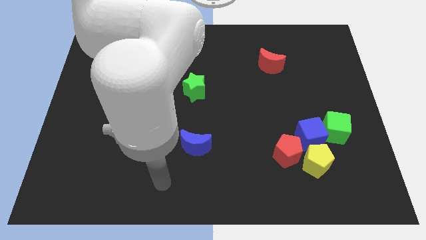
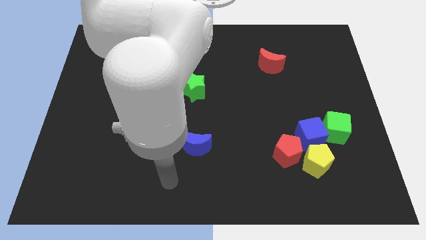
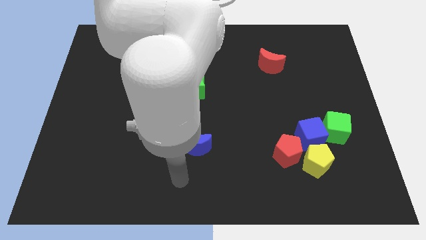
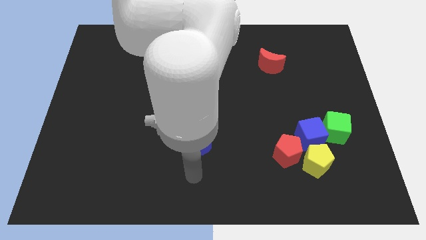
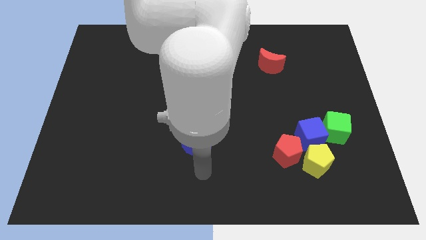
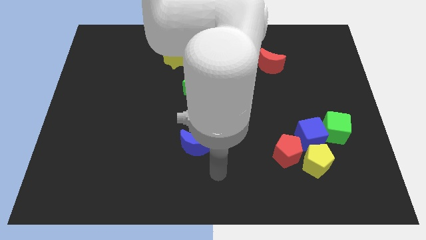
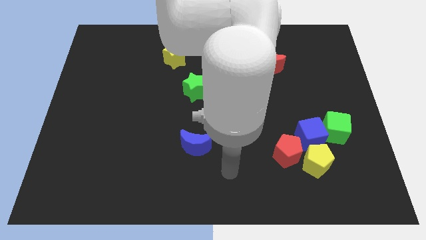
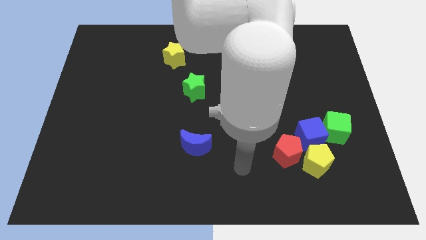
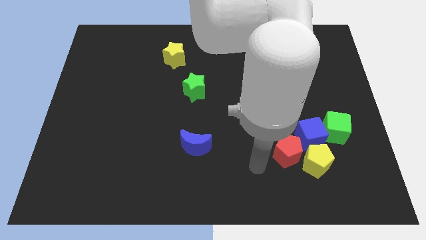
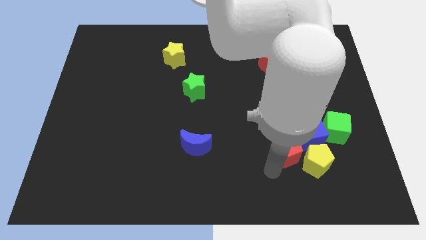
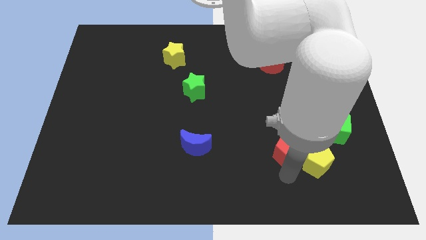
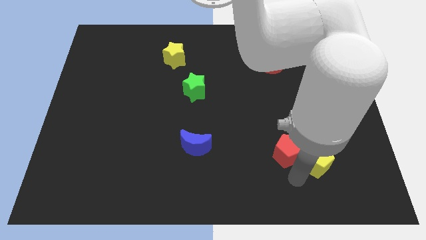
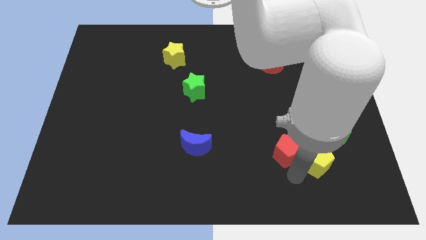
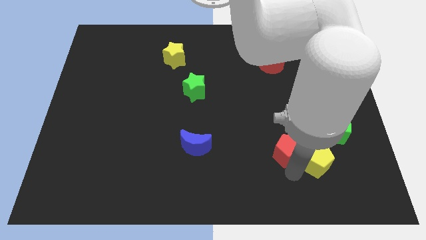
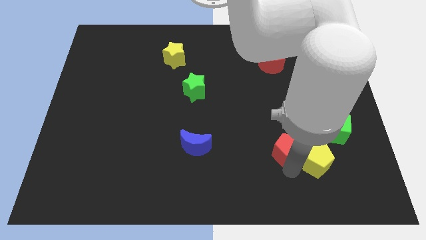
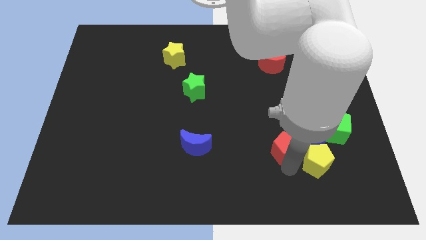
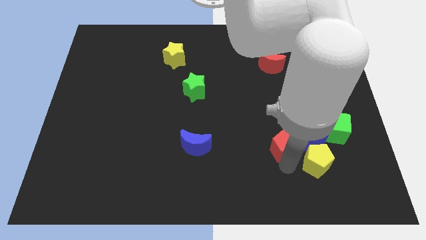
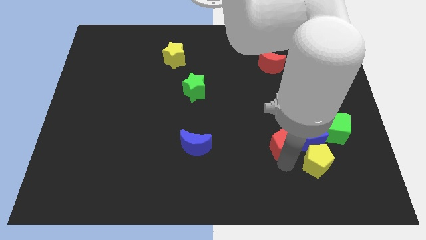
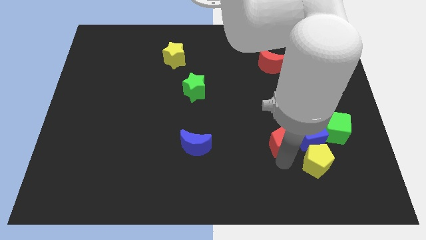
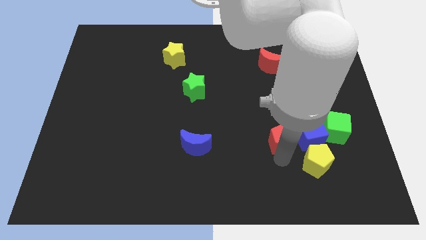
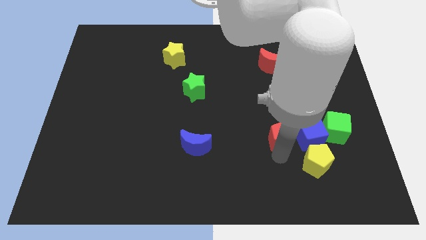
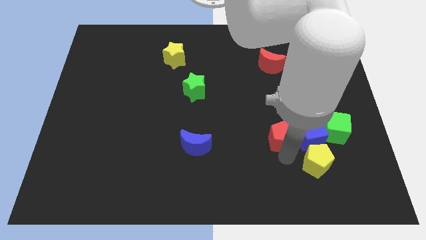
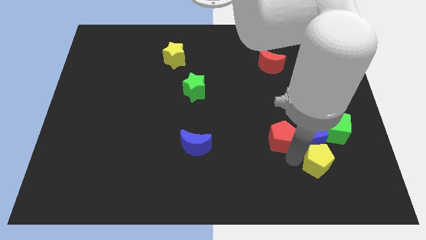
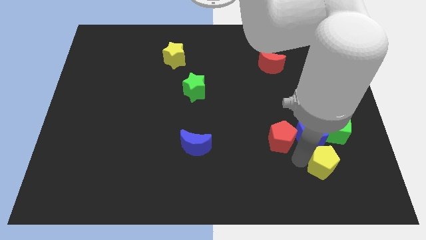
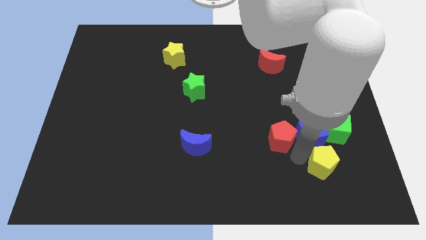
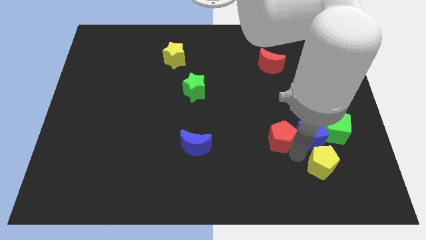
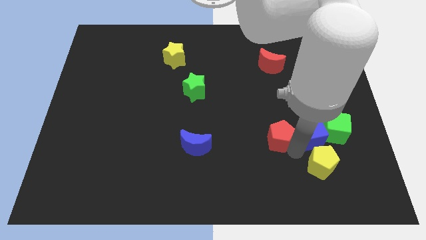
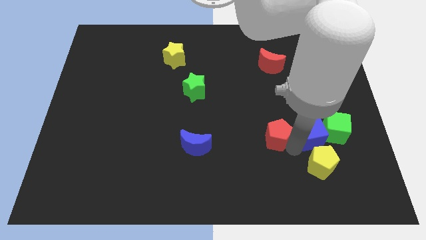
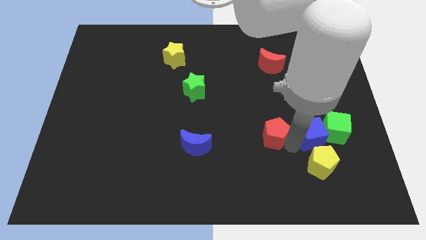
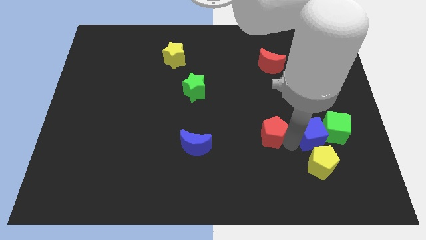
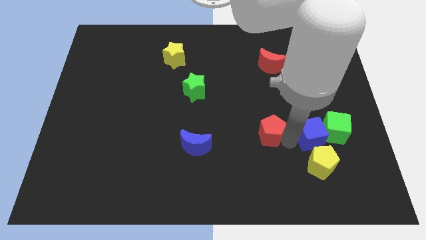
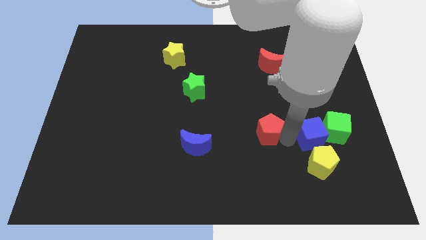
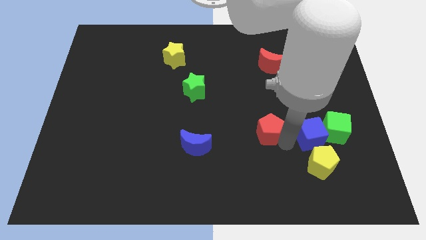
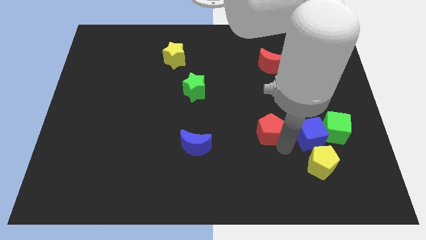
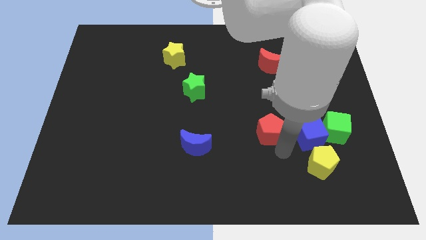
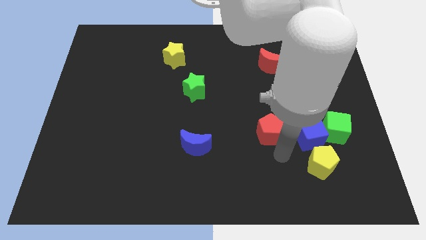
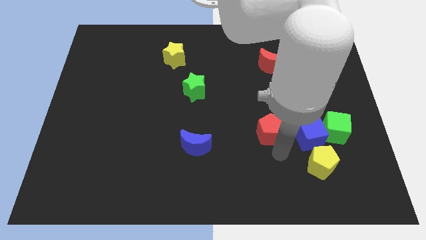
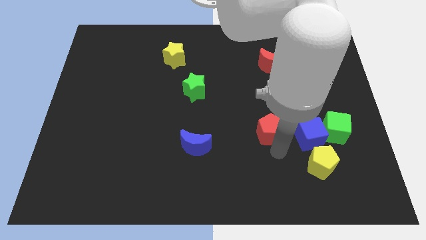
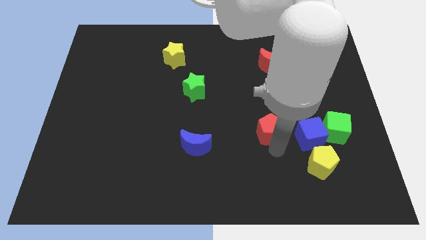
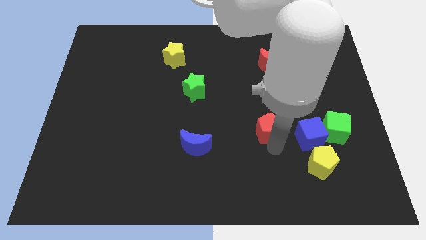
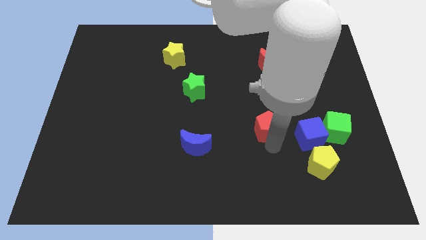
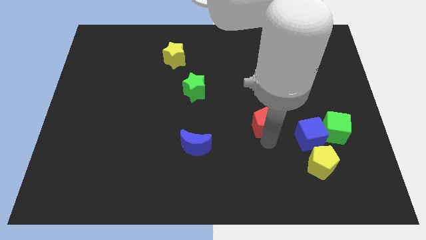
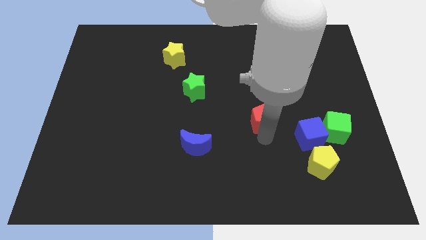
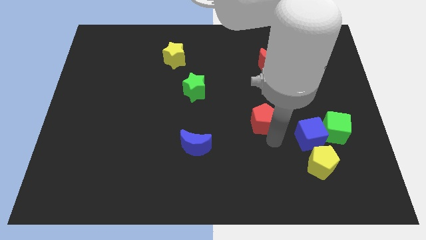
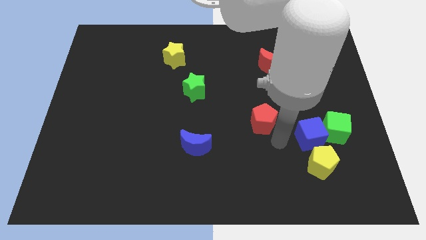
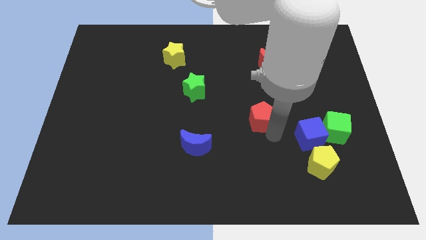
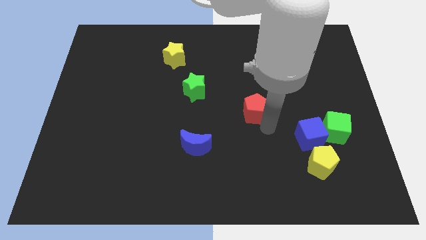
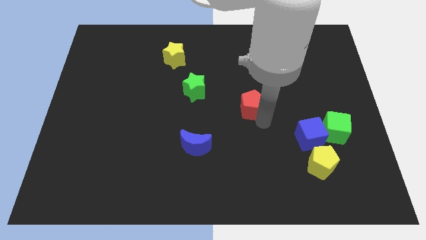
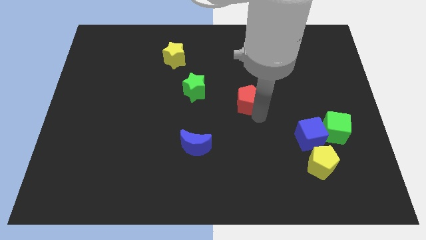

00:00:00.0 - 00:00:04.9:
move the red pentagon just right of the green star

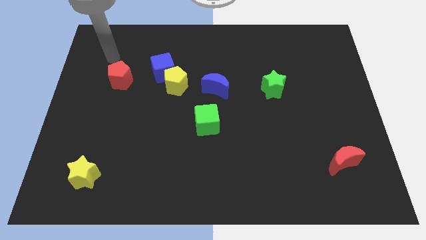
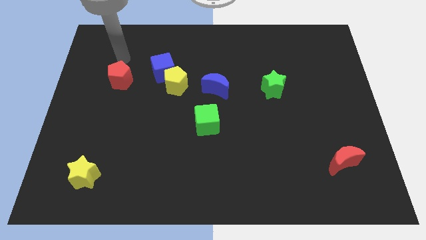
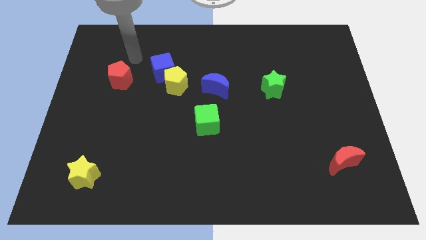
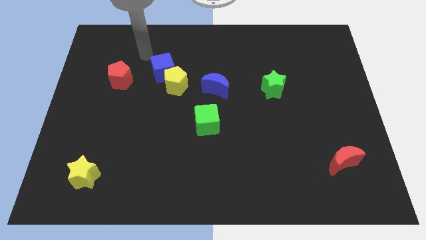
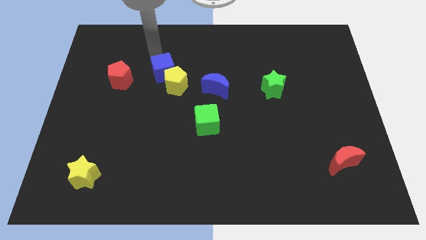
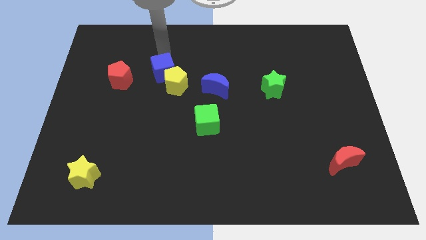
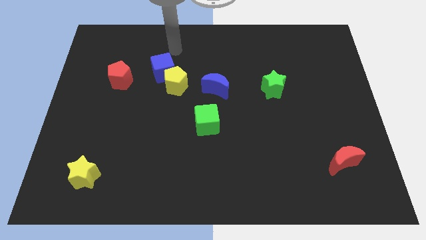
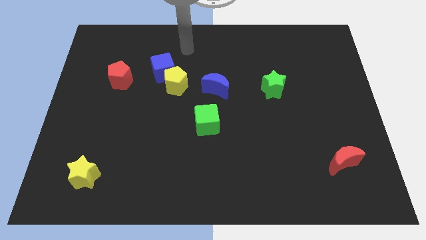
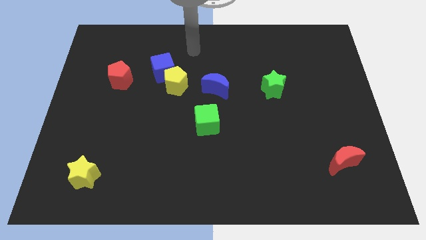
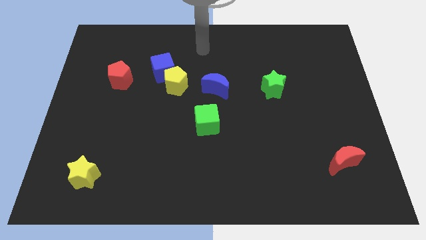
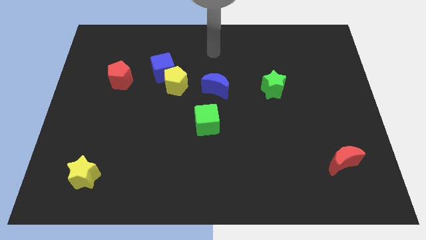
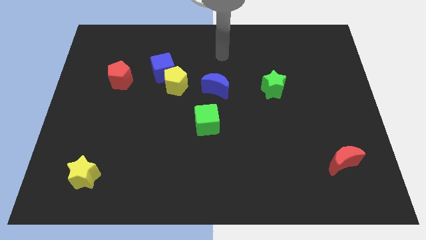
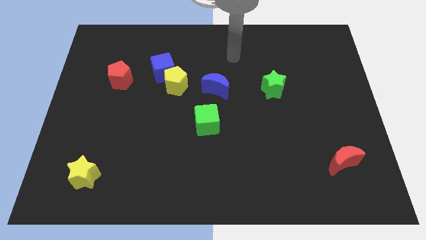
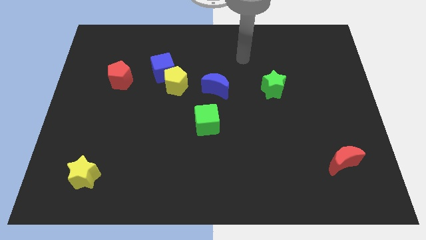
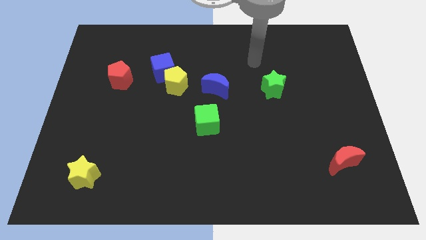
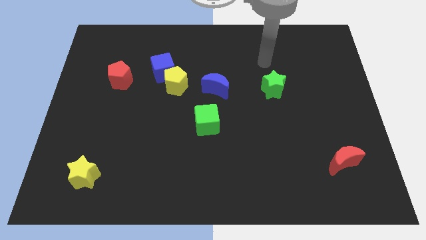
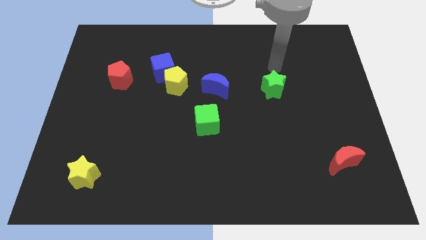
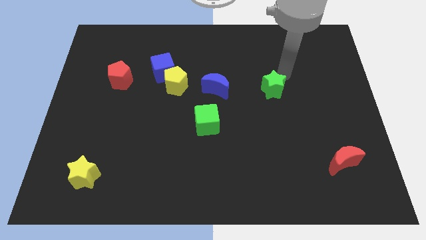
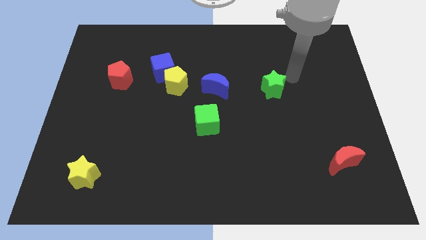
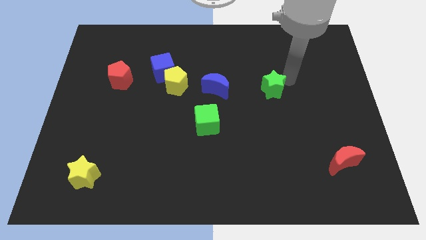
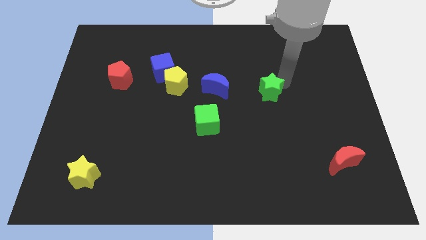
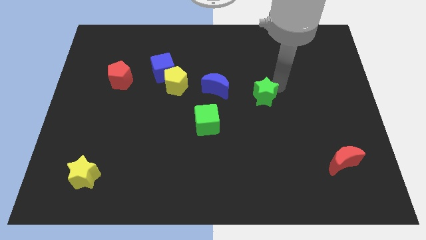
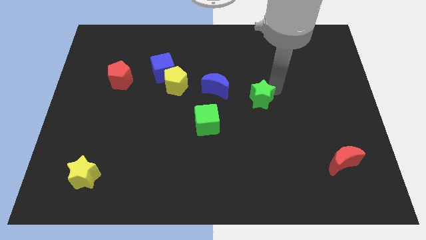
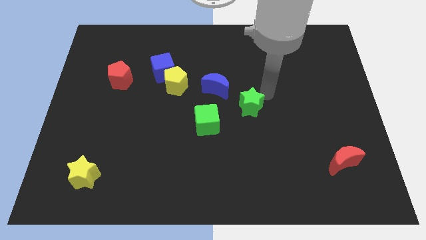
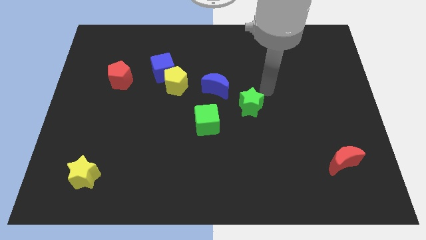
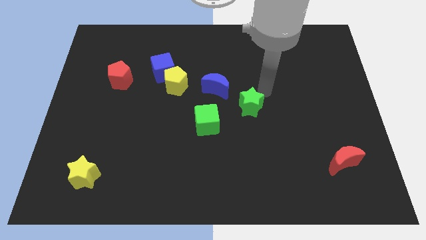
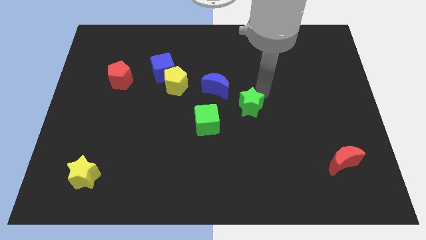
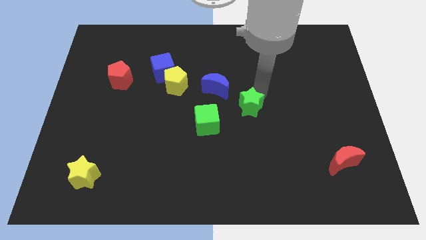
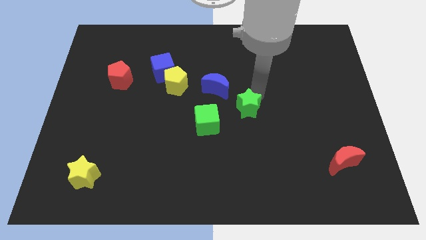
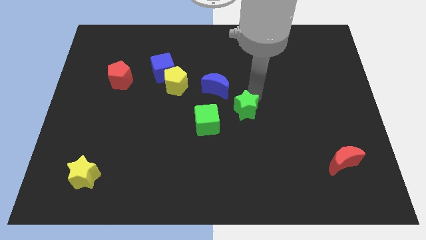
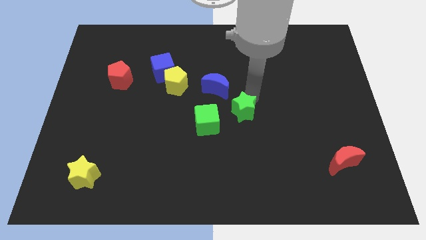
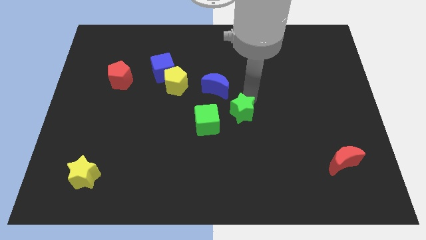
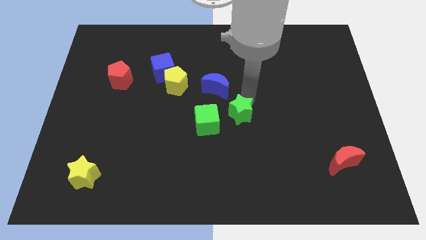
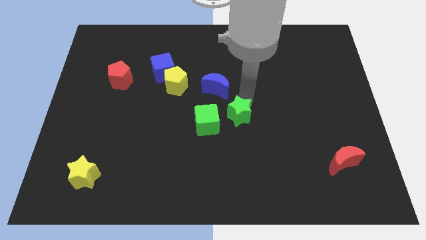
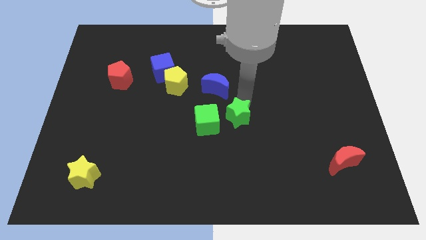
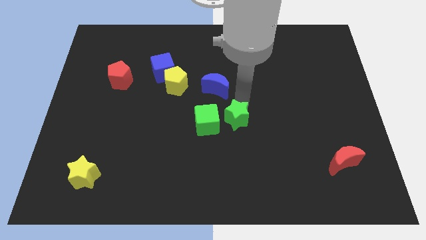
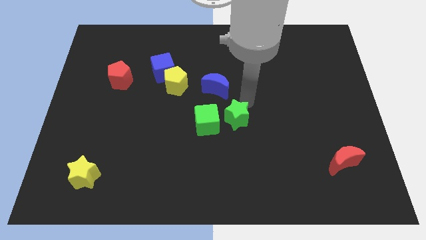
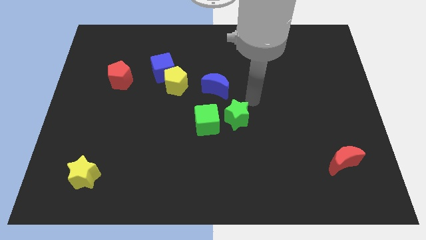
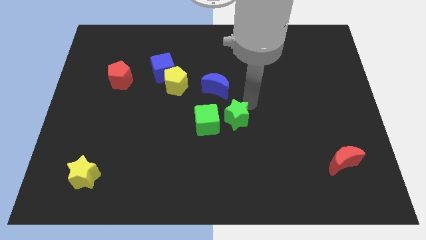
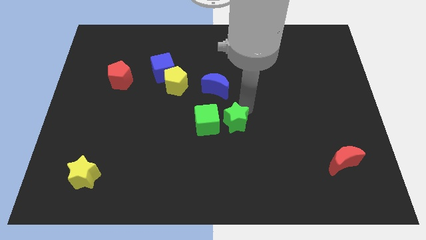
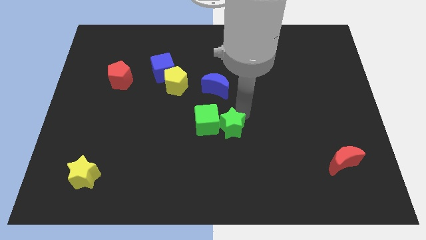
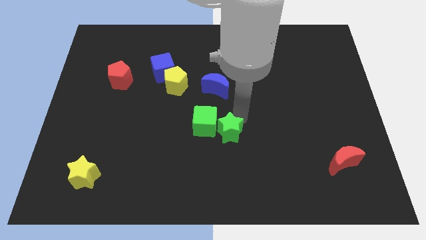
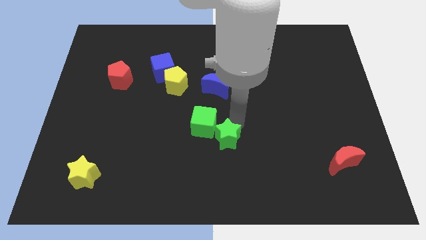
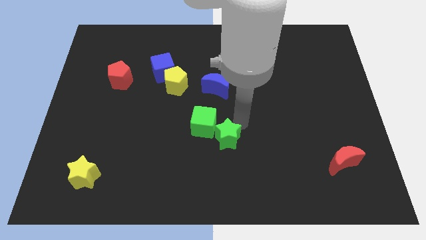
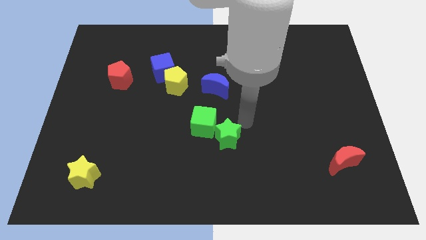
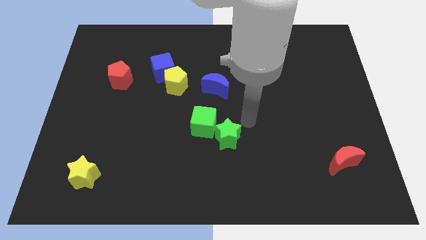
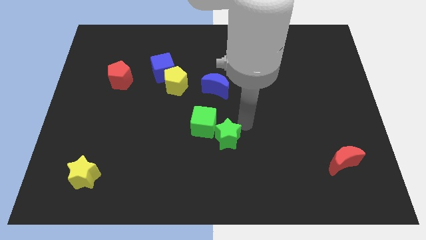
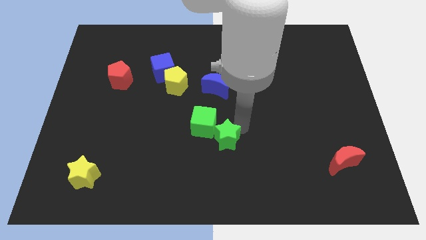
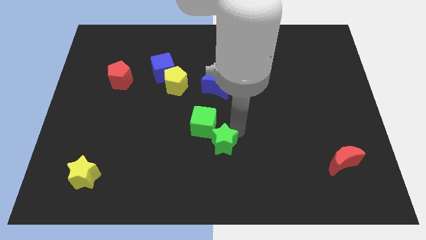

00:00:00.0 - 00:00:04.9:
move the green star to the bottom side of the green cube
